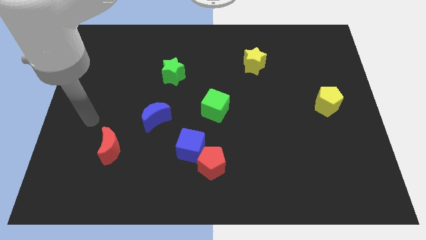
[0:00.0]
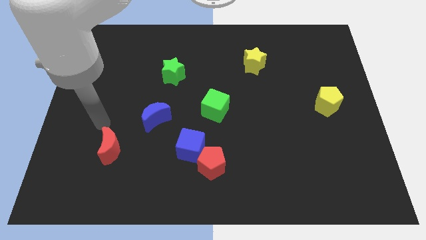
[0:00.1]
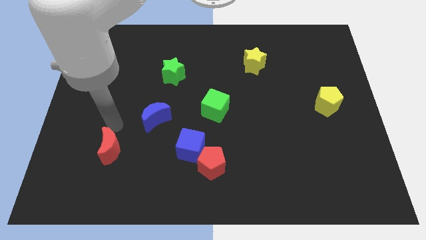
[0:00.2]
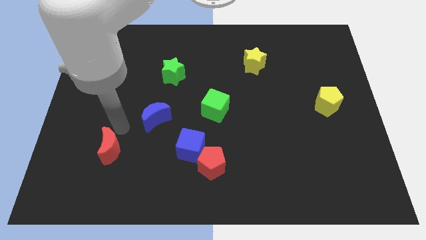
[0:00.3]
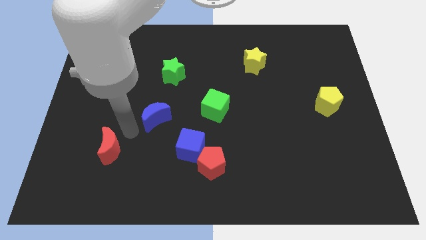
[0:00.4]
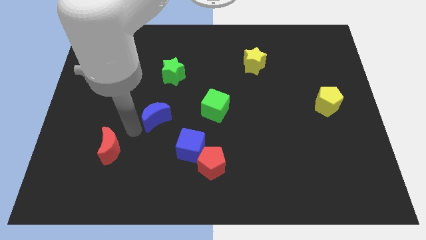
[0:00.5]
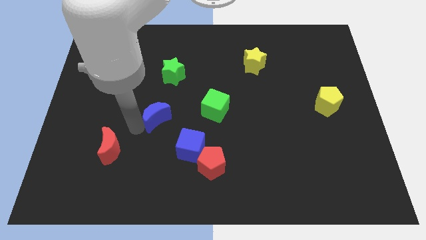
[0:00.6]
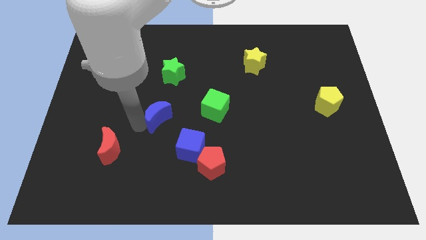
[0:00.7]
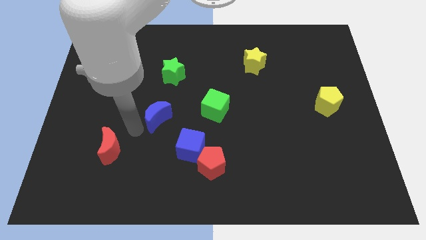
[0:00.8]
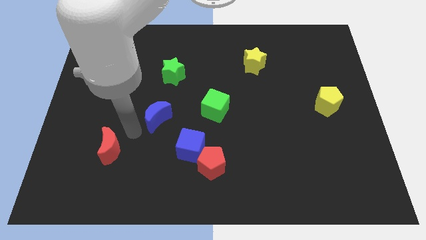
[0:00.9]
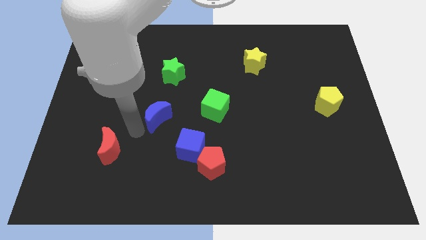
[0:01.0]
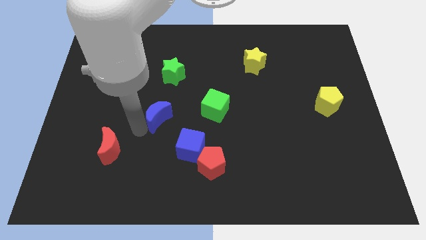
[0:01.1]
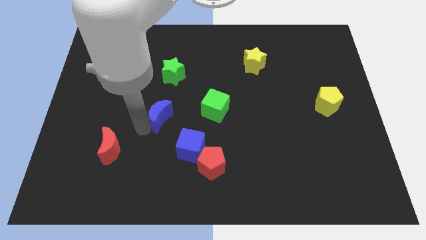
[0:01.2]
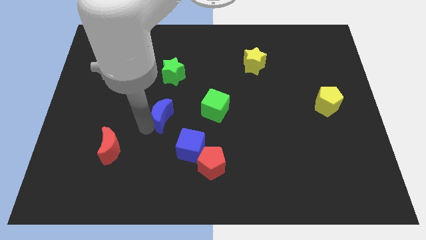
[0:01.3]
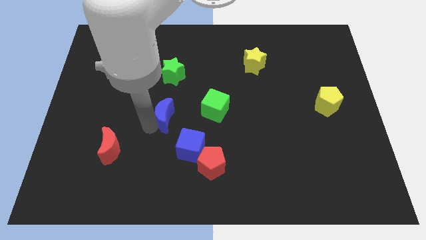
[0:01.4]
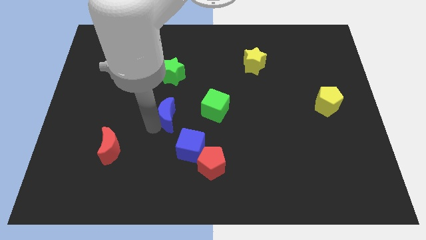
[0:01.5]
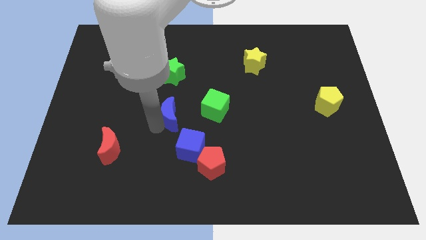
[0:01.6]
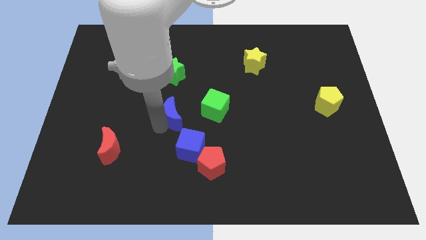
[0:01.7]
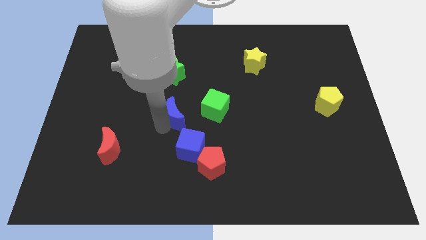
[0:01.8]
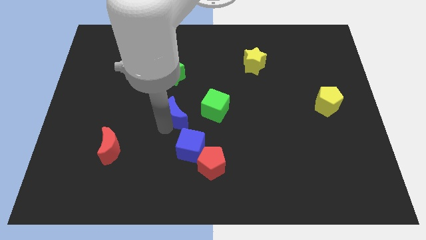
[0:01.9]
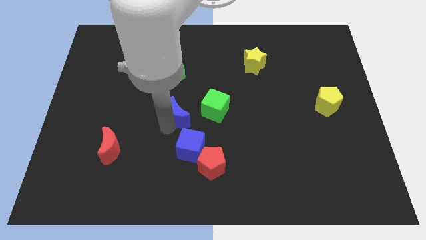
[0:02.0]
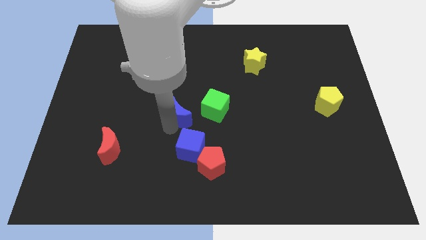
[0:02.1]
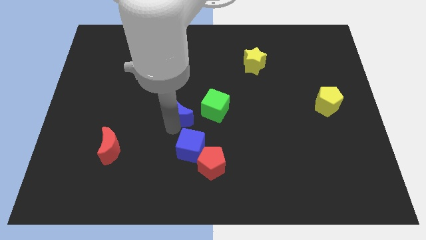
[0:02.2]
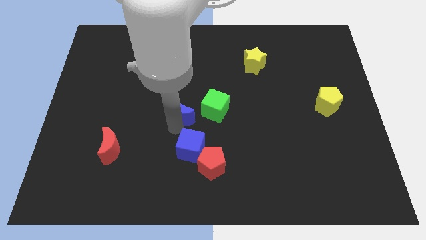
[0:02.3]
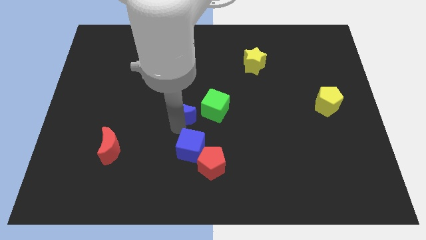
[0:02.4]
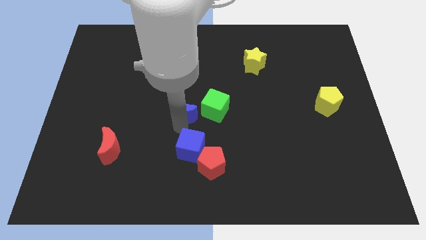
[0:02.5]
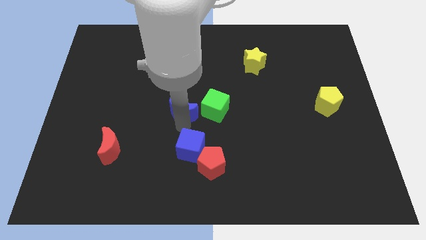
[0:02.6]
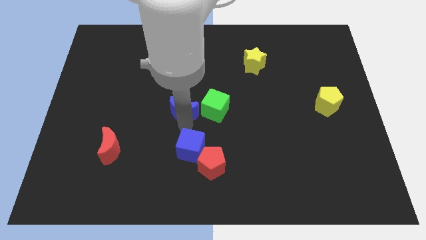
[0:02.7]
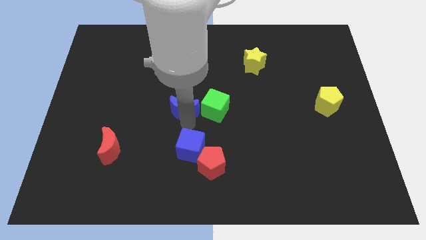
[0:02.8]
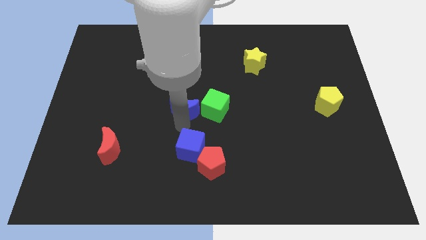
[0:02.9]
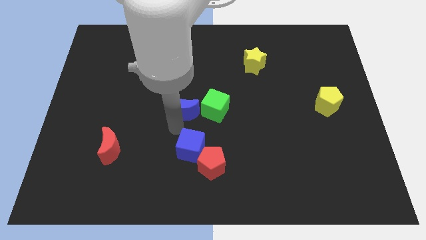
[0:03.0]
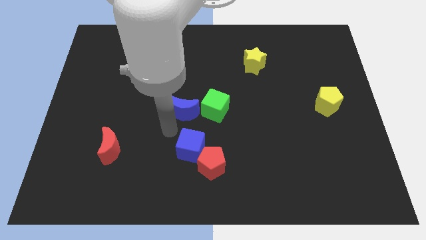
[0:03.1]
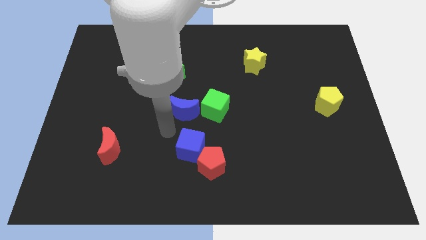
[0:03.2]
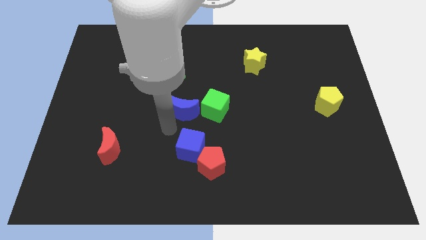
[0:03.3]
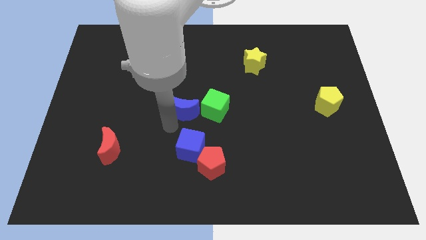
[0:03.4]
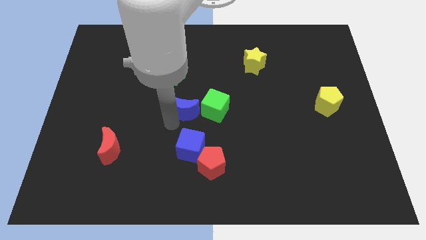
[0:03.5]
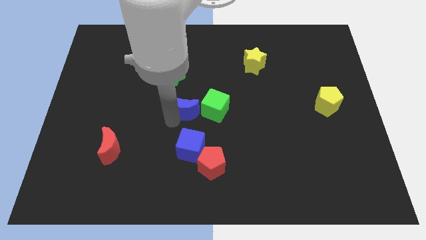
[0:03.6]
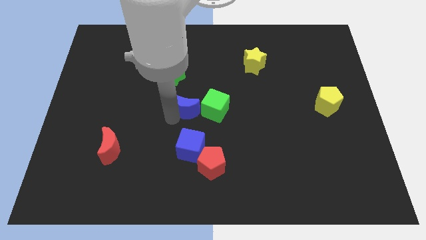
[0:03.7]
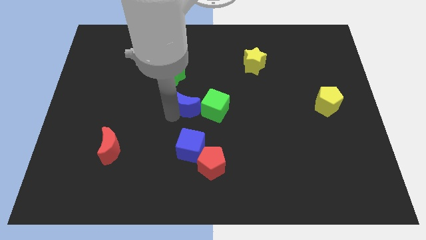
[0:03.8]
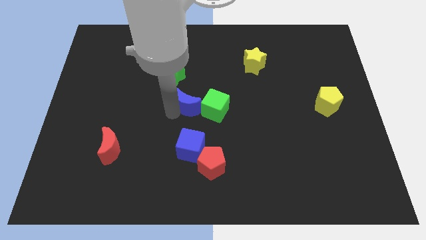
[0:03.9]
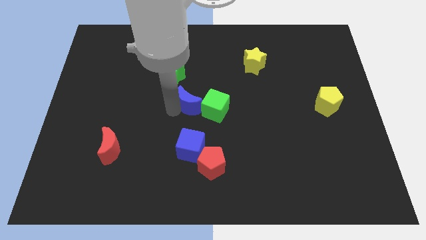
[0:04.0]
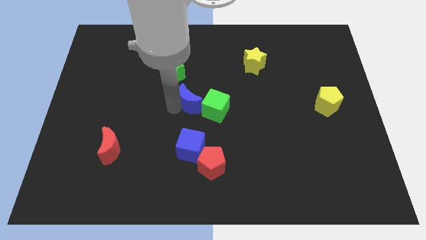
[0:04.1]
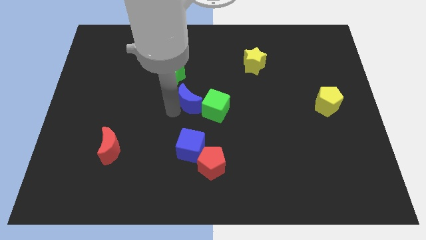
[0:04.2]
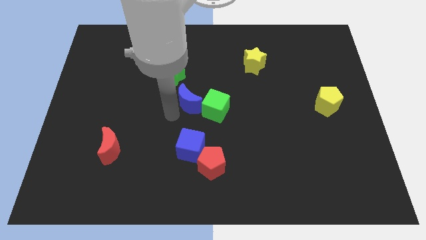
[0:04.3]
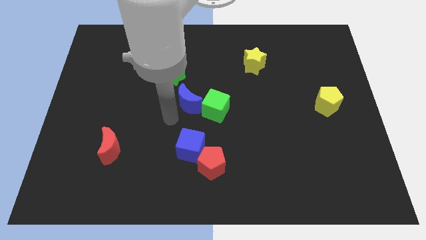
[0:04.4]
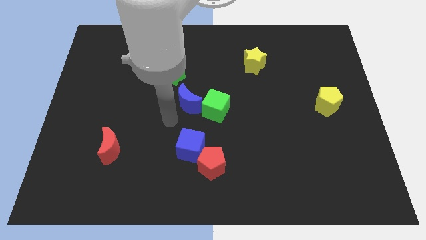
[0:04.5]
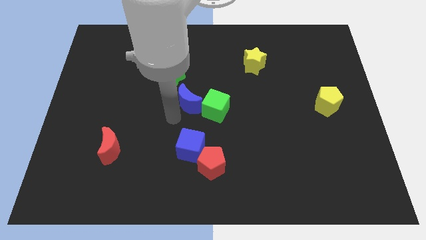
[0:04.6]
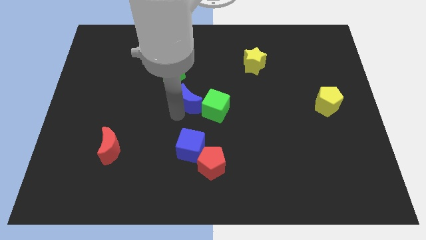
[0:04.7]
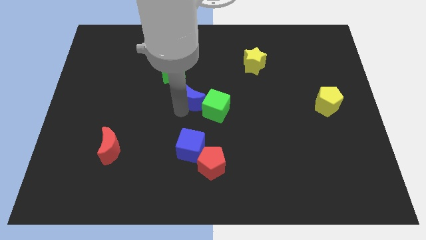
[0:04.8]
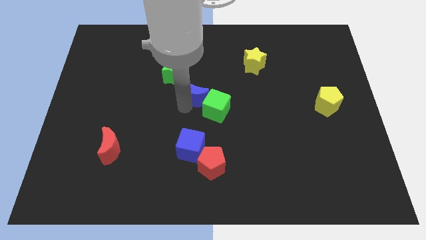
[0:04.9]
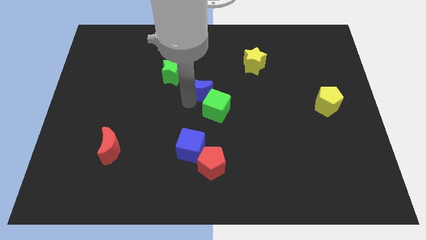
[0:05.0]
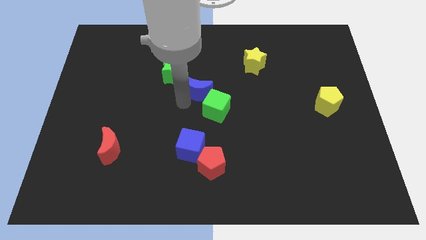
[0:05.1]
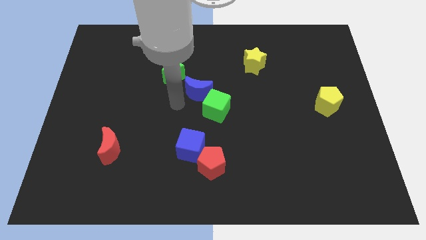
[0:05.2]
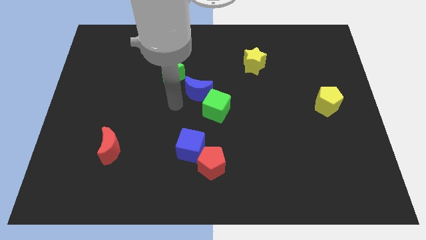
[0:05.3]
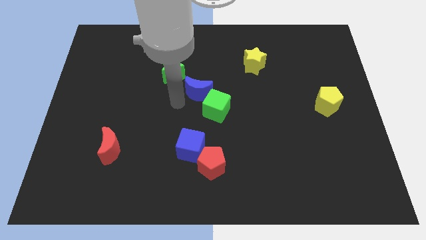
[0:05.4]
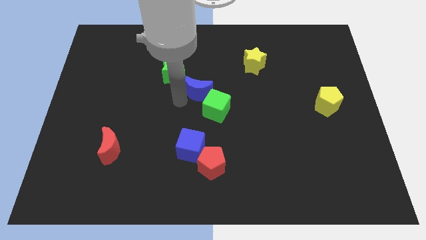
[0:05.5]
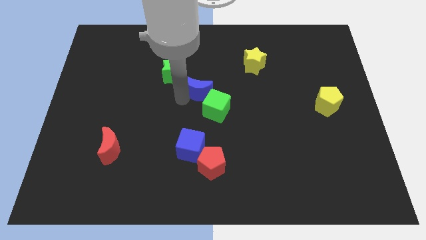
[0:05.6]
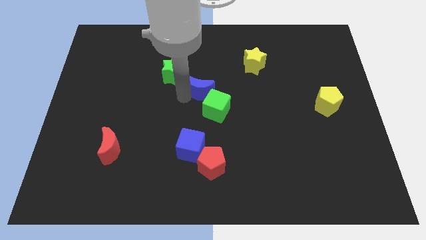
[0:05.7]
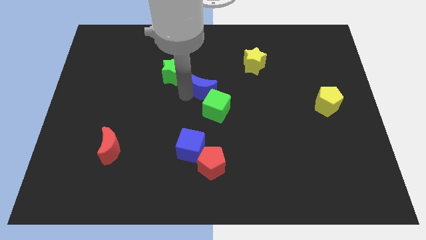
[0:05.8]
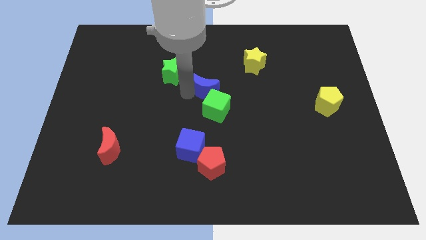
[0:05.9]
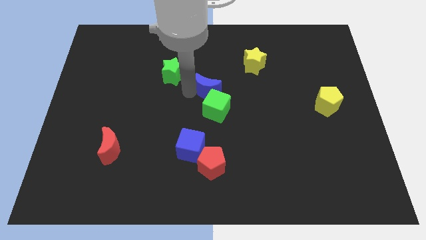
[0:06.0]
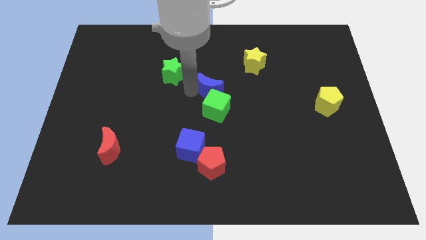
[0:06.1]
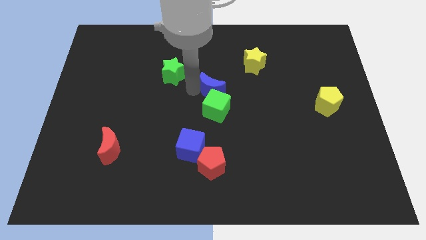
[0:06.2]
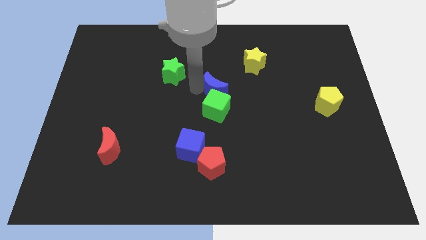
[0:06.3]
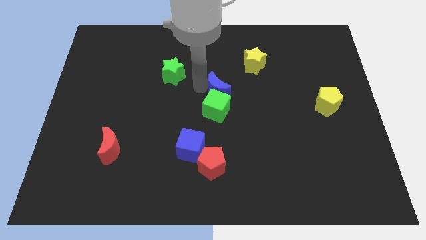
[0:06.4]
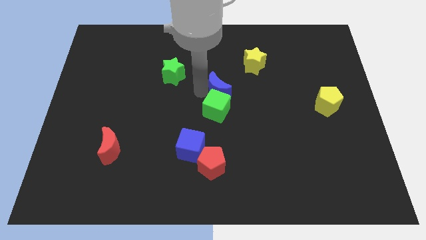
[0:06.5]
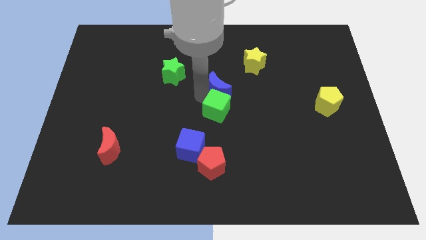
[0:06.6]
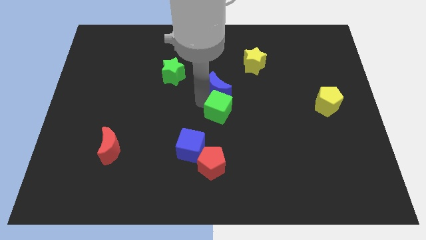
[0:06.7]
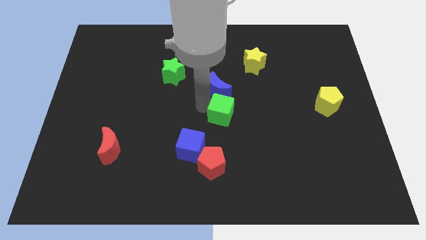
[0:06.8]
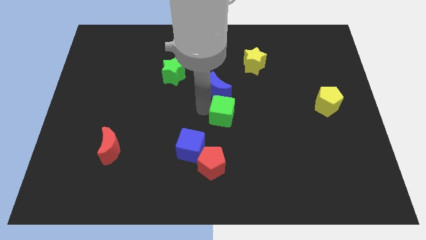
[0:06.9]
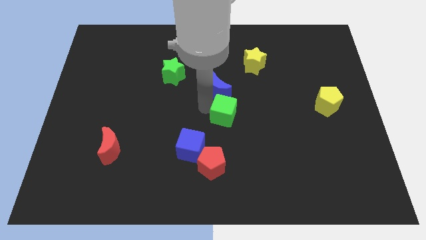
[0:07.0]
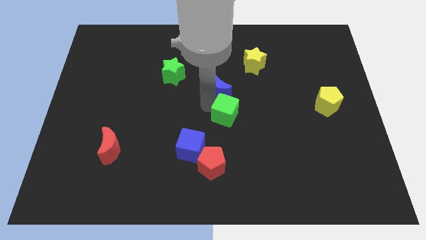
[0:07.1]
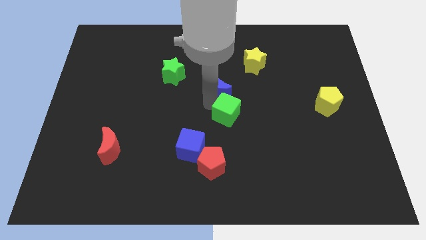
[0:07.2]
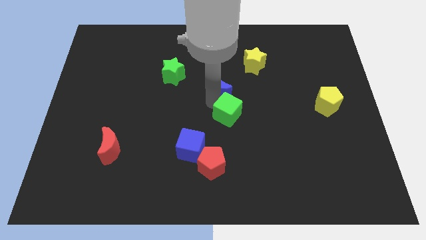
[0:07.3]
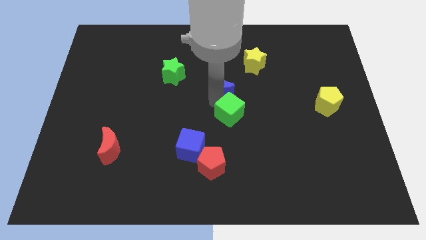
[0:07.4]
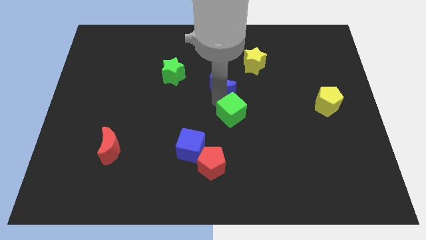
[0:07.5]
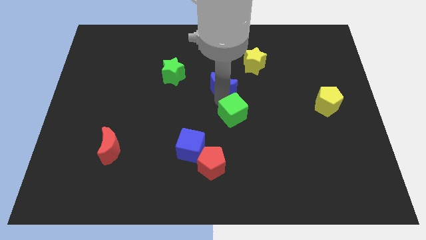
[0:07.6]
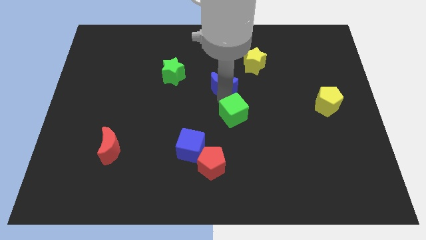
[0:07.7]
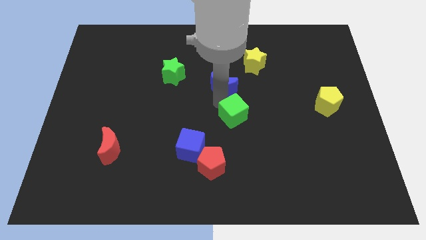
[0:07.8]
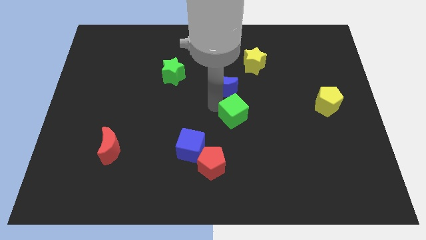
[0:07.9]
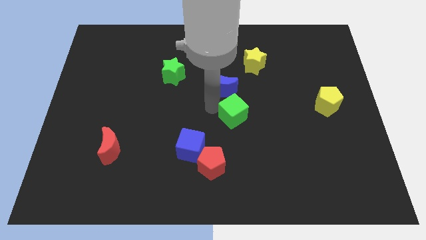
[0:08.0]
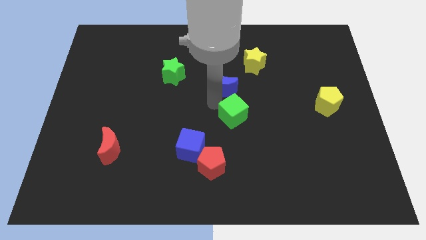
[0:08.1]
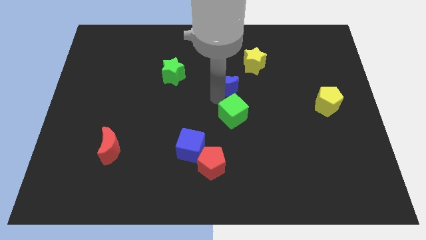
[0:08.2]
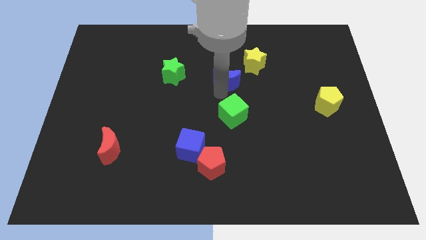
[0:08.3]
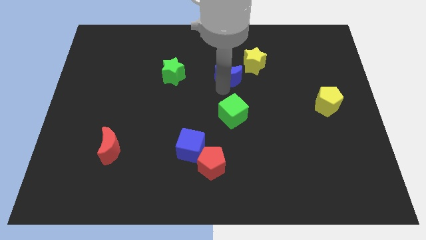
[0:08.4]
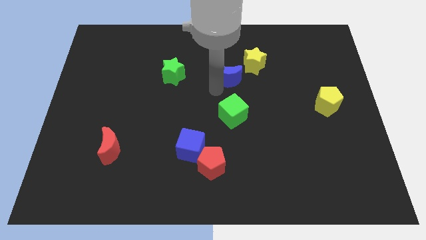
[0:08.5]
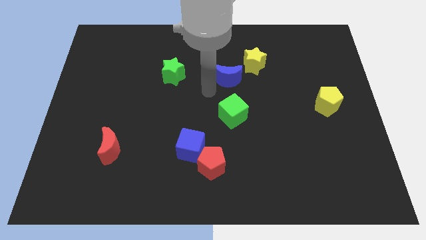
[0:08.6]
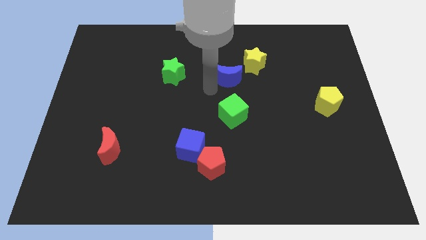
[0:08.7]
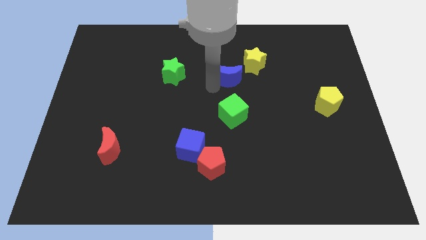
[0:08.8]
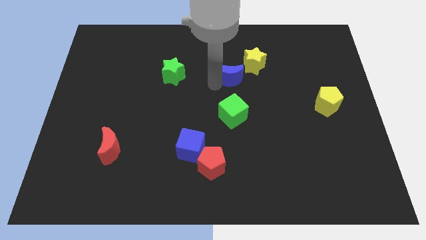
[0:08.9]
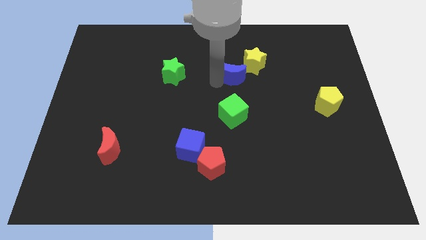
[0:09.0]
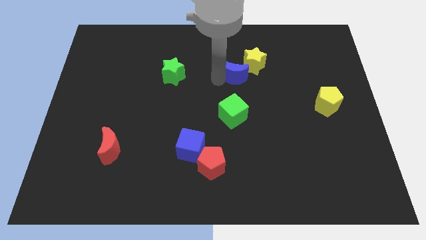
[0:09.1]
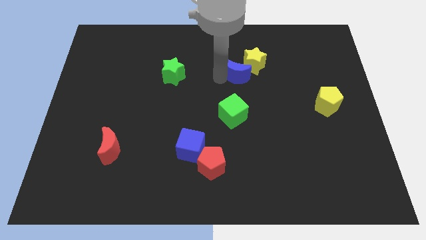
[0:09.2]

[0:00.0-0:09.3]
put the blue moon to the yellow star
